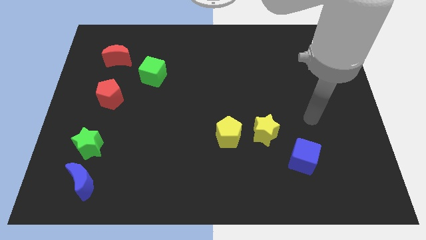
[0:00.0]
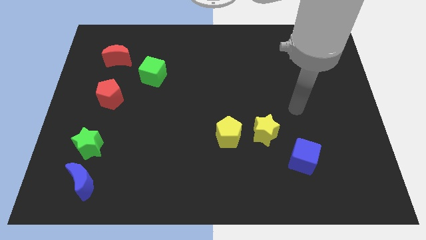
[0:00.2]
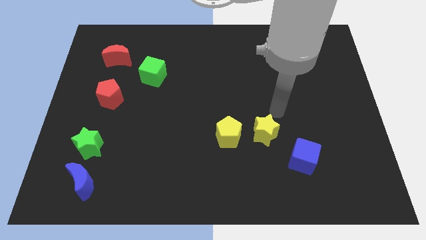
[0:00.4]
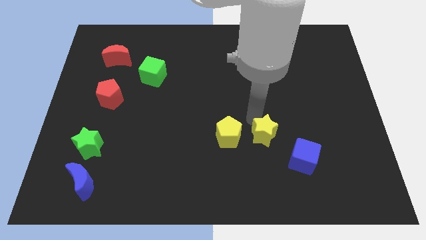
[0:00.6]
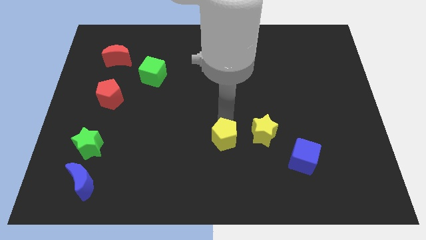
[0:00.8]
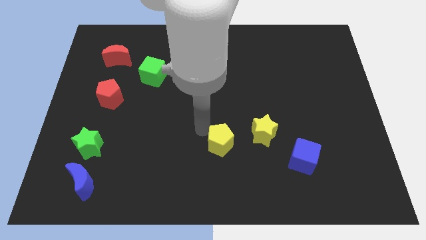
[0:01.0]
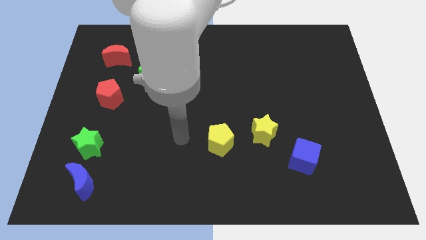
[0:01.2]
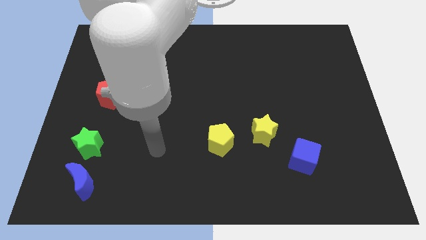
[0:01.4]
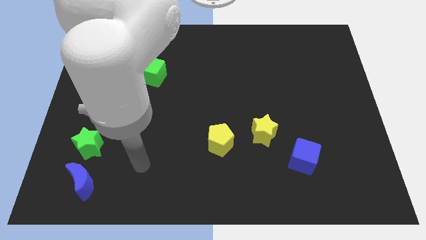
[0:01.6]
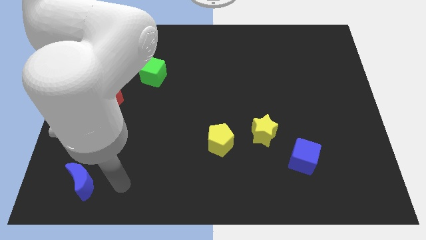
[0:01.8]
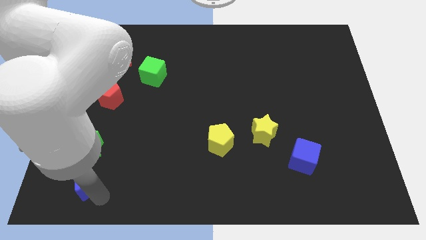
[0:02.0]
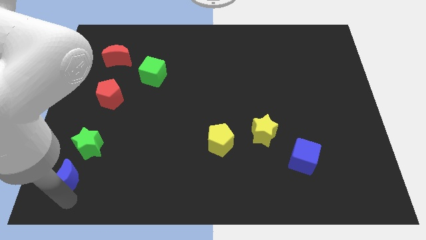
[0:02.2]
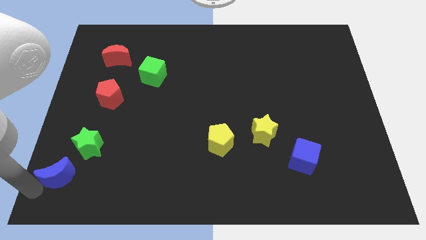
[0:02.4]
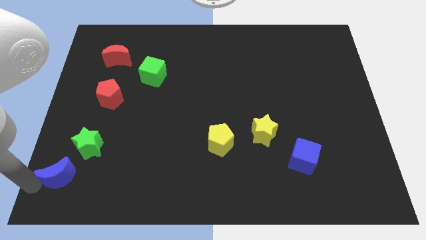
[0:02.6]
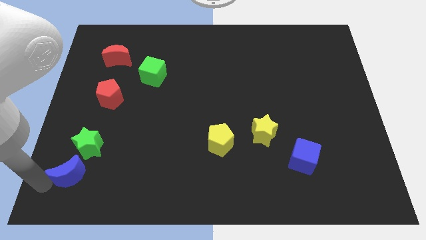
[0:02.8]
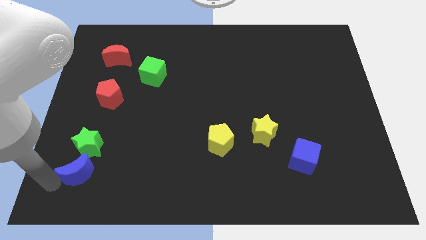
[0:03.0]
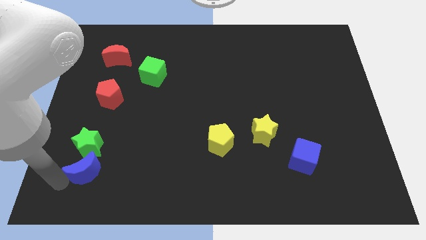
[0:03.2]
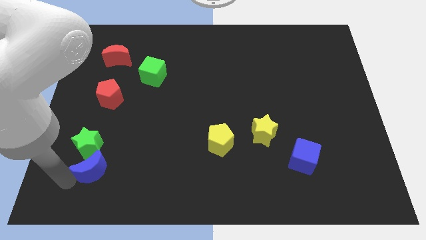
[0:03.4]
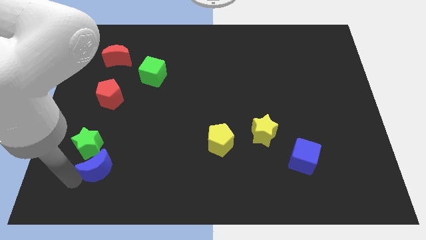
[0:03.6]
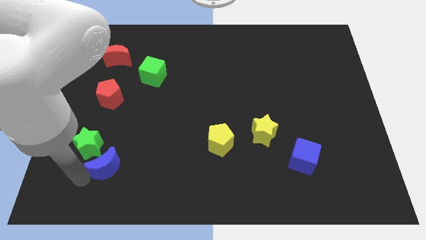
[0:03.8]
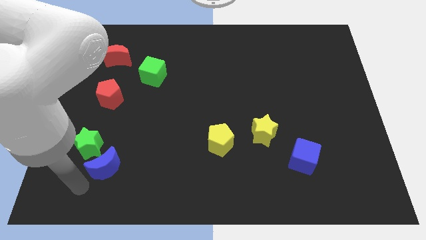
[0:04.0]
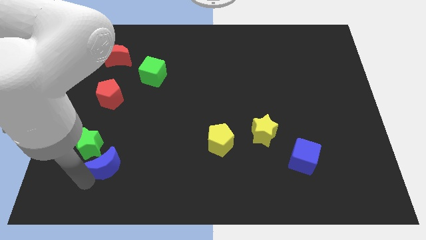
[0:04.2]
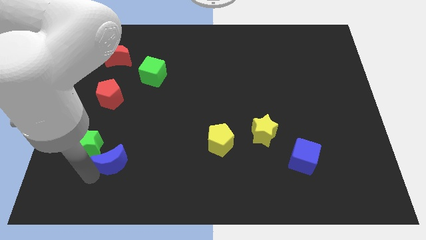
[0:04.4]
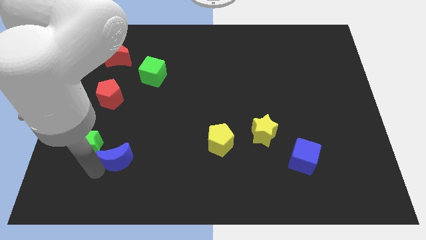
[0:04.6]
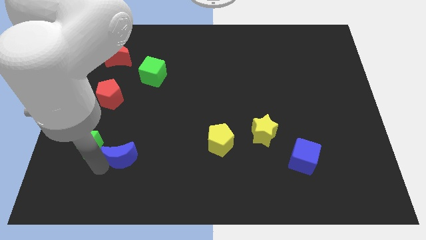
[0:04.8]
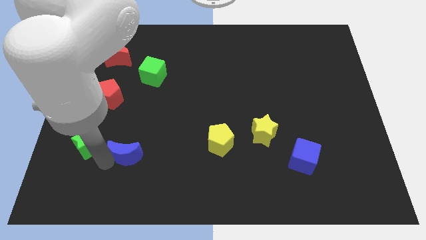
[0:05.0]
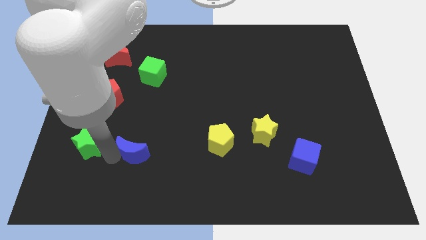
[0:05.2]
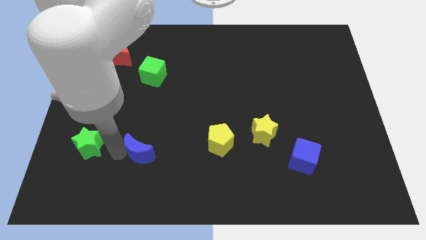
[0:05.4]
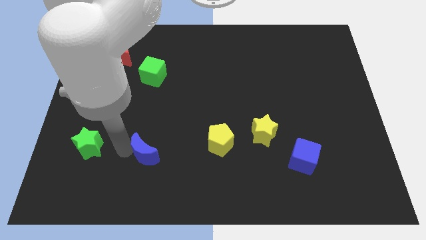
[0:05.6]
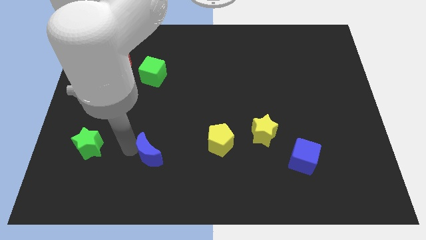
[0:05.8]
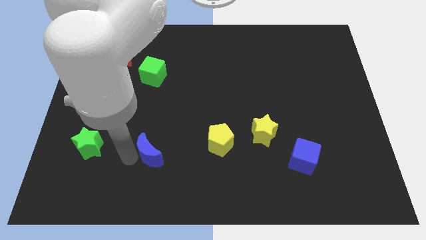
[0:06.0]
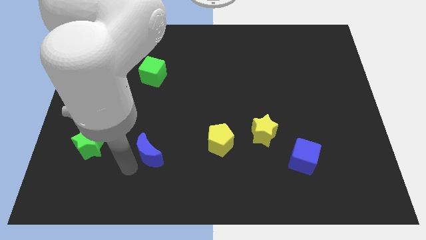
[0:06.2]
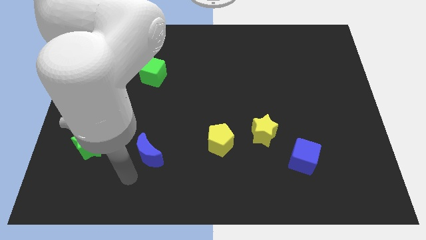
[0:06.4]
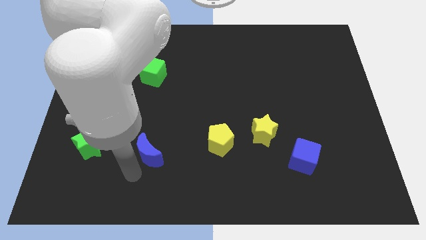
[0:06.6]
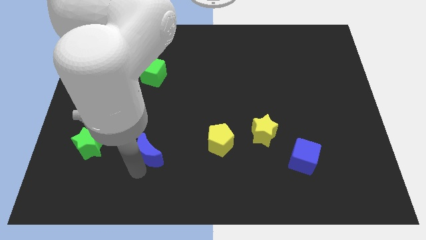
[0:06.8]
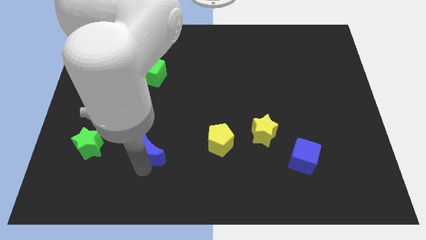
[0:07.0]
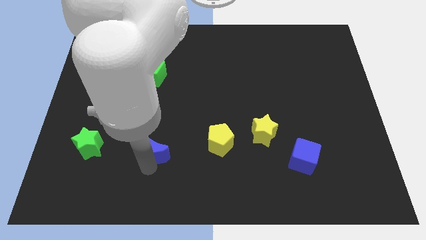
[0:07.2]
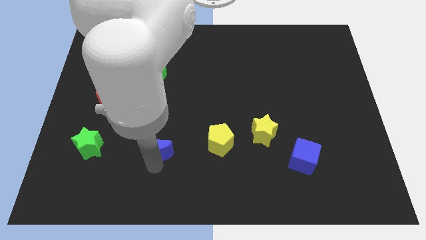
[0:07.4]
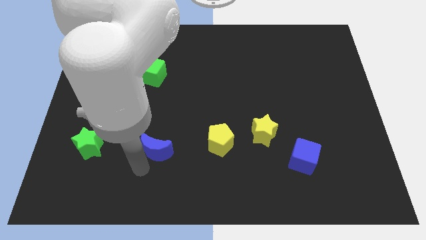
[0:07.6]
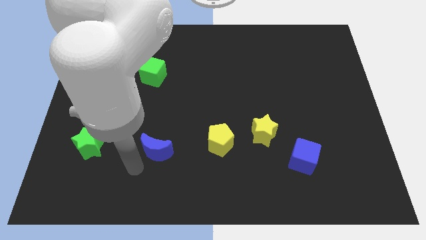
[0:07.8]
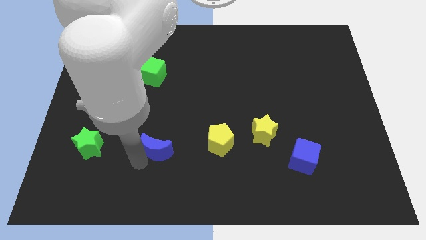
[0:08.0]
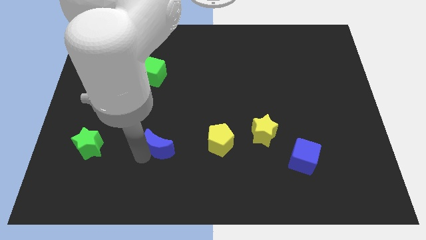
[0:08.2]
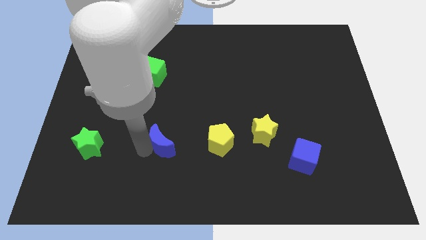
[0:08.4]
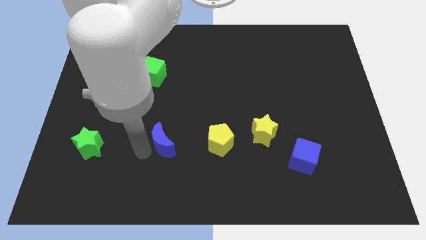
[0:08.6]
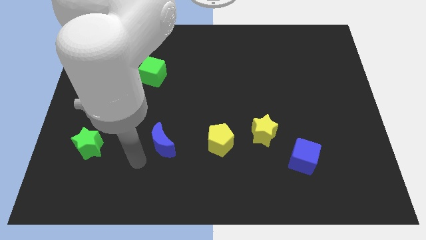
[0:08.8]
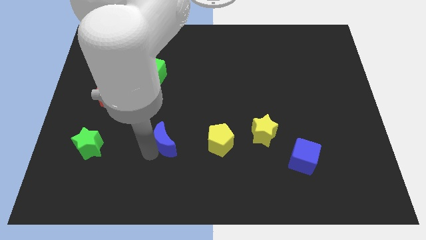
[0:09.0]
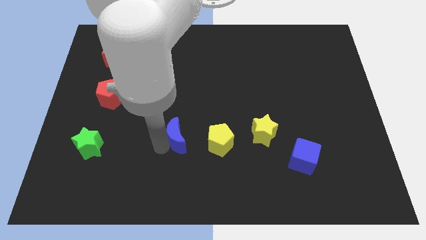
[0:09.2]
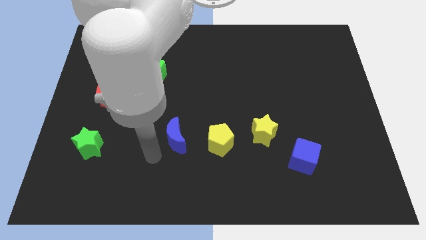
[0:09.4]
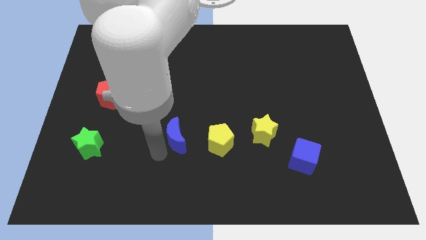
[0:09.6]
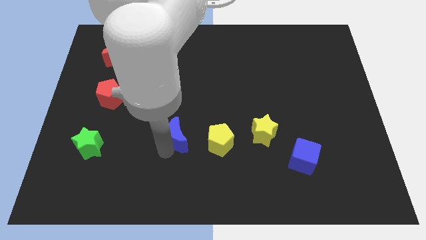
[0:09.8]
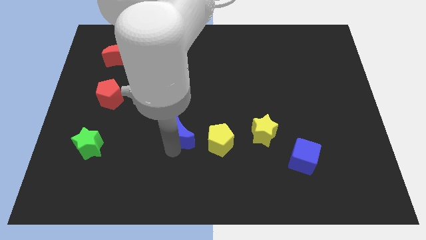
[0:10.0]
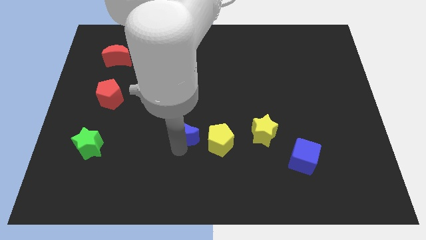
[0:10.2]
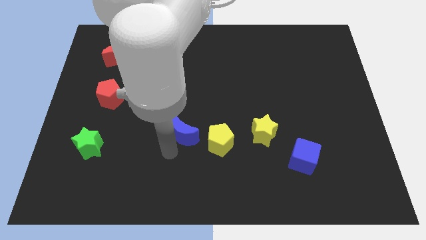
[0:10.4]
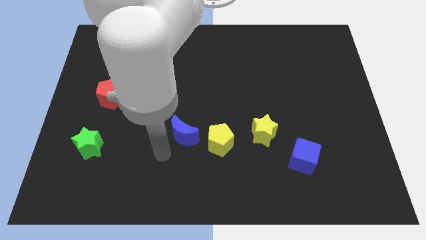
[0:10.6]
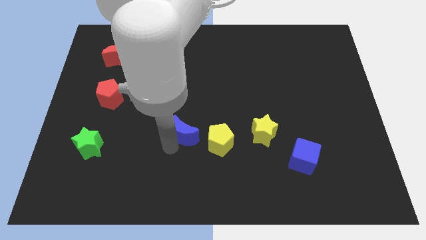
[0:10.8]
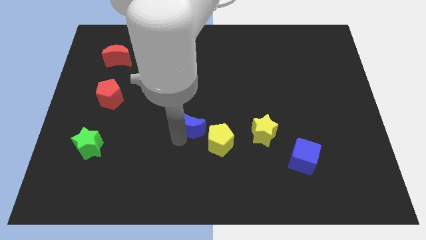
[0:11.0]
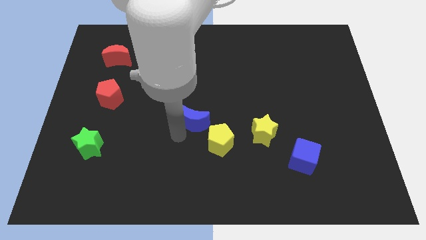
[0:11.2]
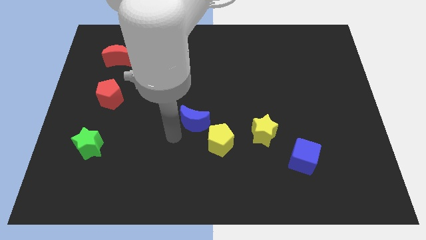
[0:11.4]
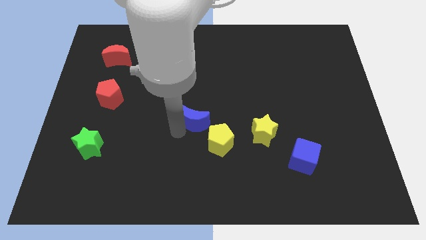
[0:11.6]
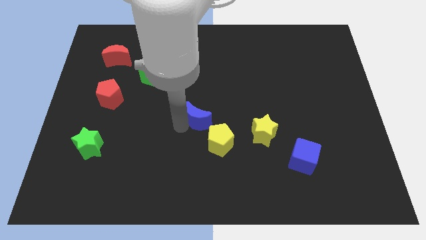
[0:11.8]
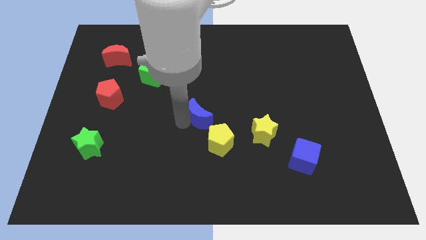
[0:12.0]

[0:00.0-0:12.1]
put the blue moon to the top of the yellow pentagon

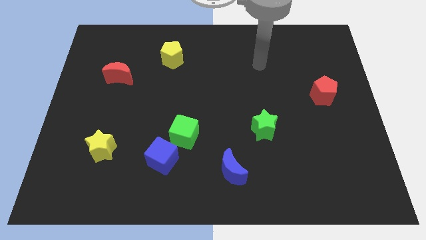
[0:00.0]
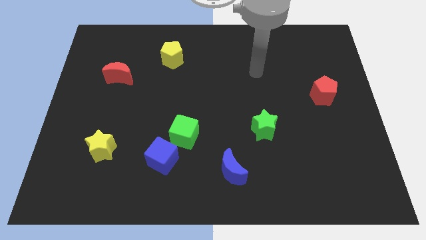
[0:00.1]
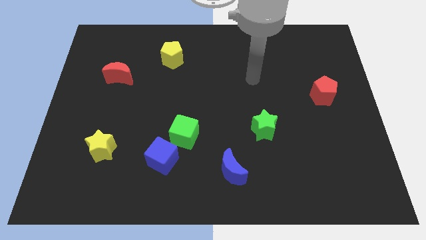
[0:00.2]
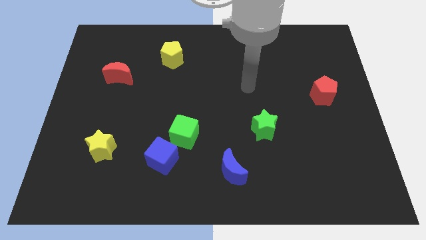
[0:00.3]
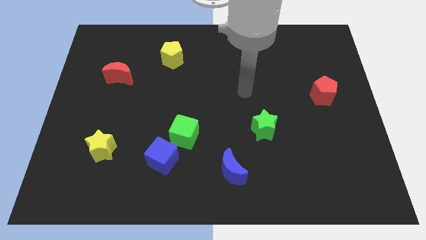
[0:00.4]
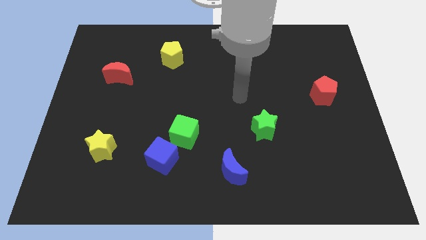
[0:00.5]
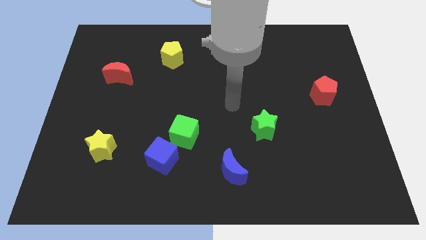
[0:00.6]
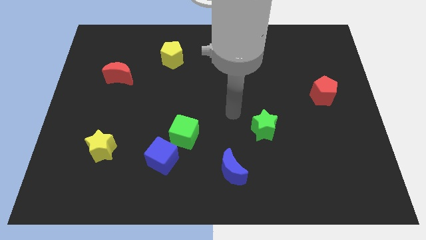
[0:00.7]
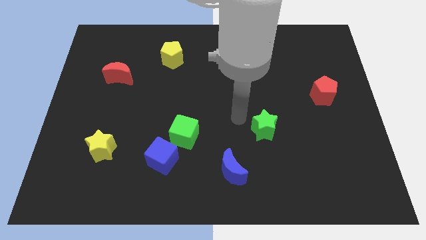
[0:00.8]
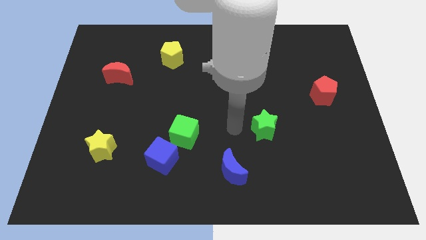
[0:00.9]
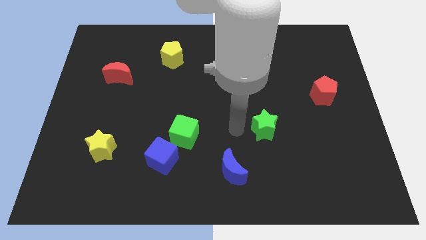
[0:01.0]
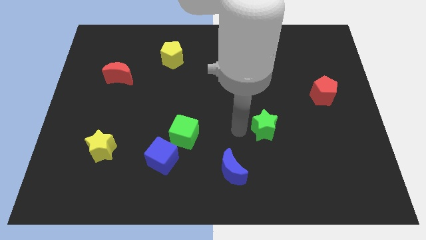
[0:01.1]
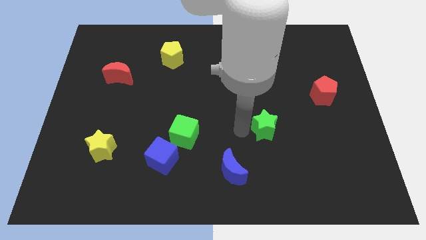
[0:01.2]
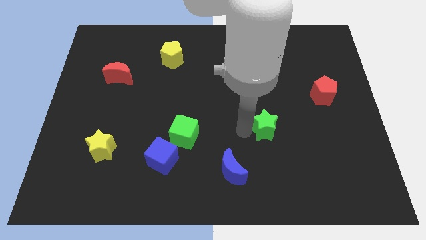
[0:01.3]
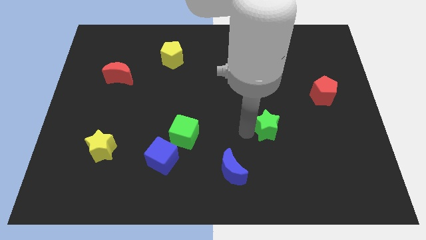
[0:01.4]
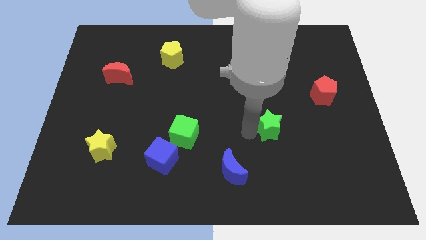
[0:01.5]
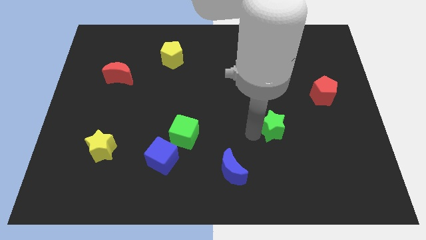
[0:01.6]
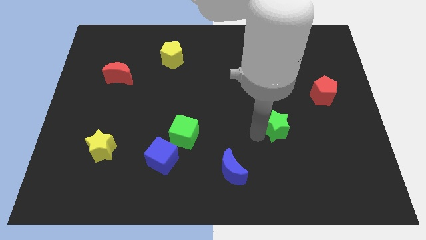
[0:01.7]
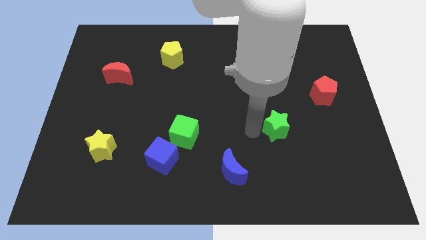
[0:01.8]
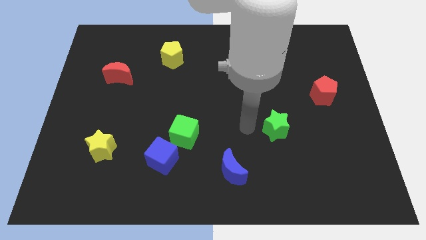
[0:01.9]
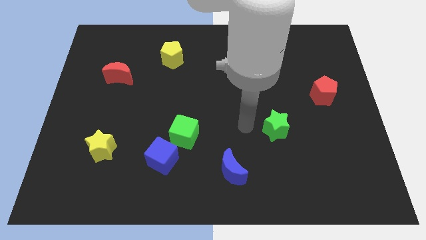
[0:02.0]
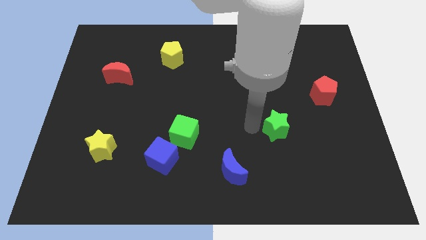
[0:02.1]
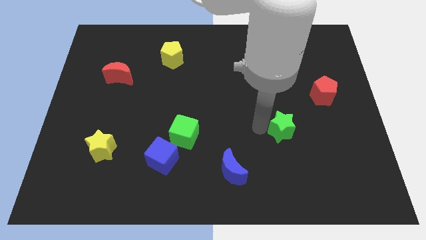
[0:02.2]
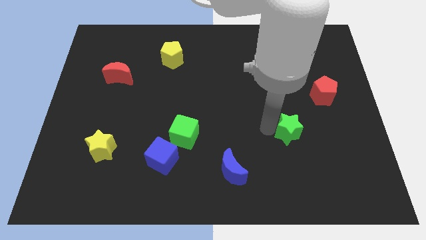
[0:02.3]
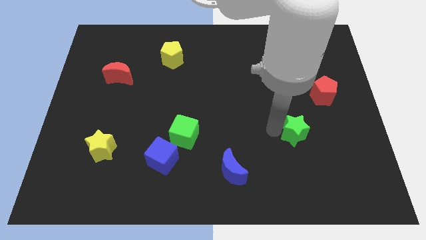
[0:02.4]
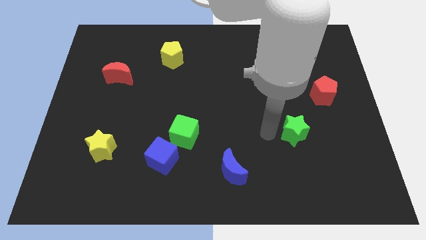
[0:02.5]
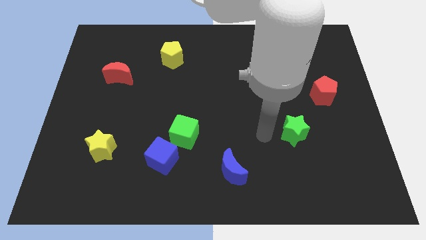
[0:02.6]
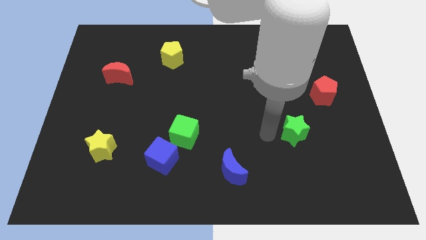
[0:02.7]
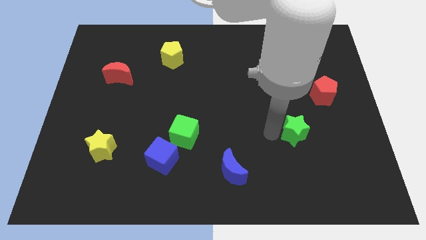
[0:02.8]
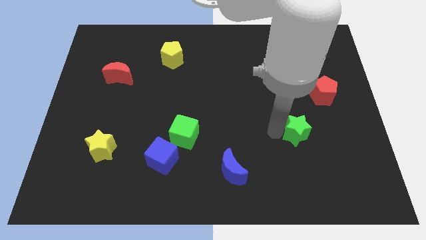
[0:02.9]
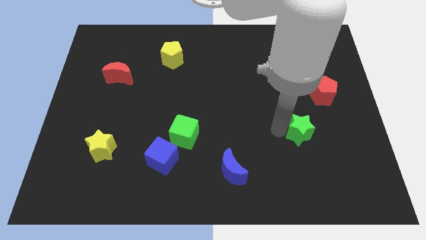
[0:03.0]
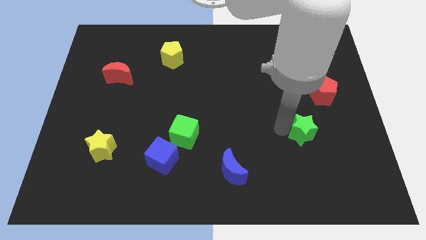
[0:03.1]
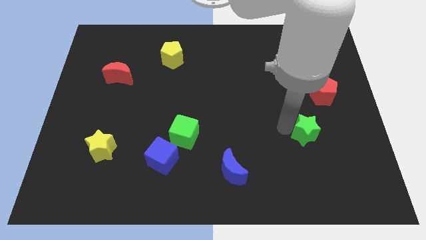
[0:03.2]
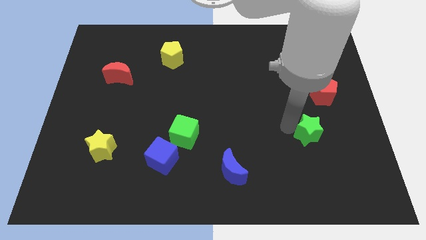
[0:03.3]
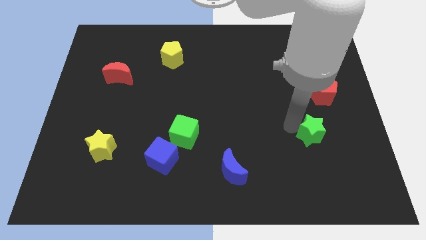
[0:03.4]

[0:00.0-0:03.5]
move the green star to the bottom of the red pentagon
